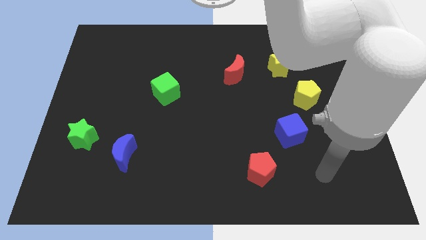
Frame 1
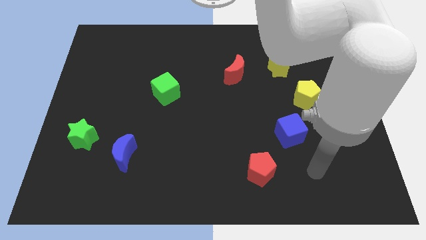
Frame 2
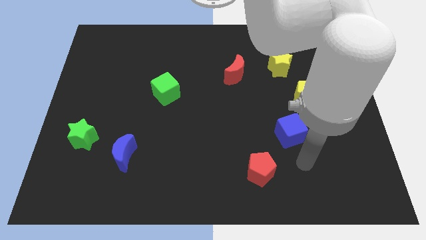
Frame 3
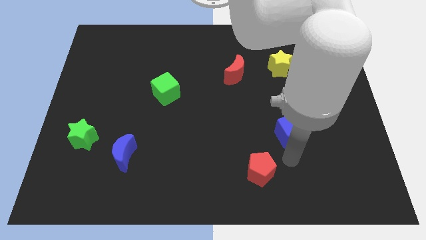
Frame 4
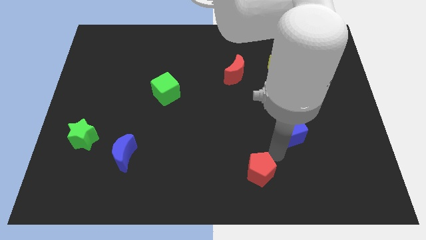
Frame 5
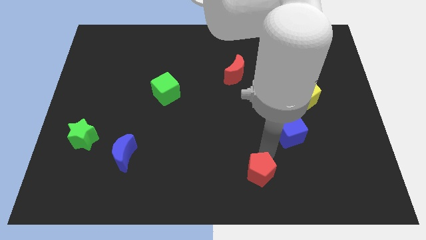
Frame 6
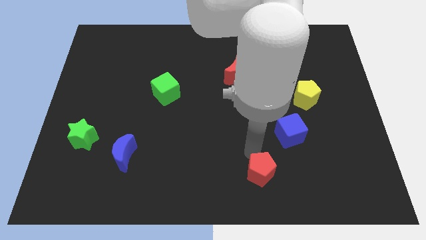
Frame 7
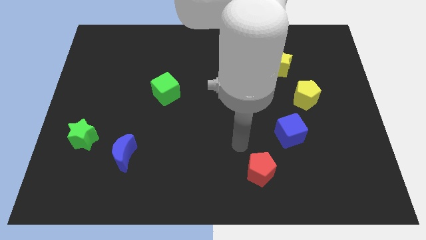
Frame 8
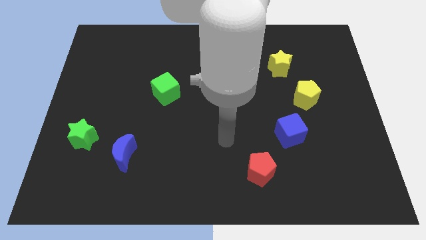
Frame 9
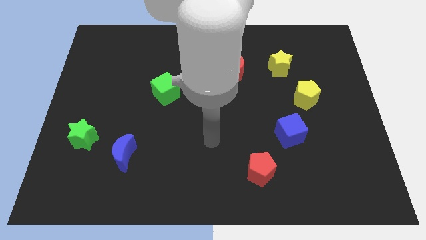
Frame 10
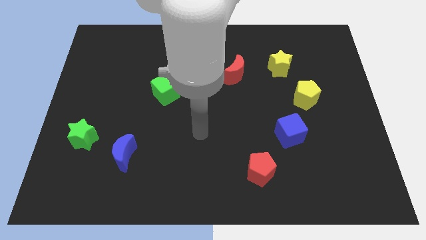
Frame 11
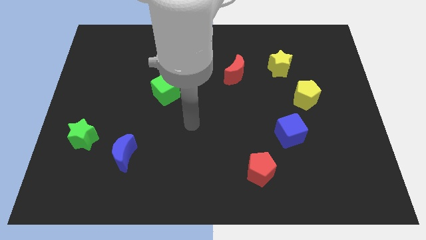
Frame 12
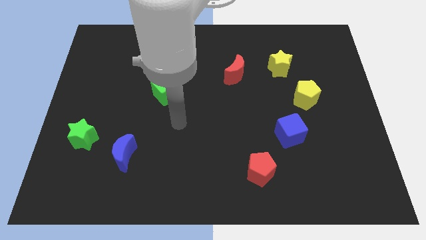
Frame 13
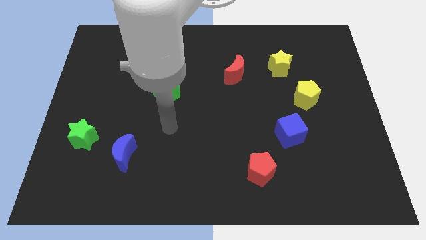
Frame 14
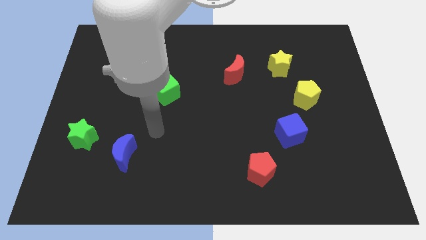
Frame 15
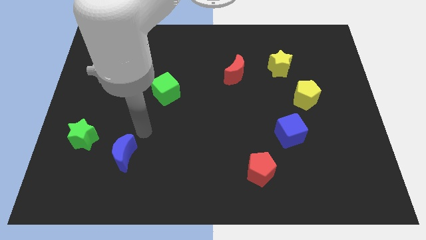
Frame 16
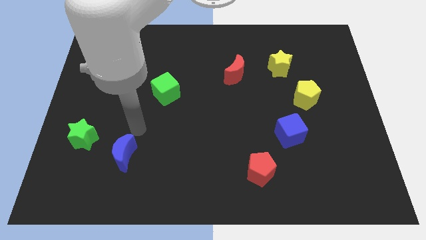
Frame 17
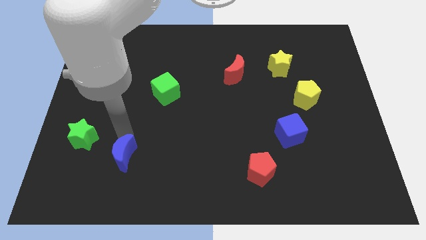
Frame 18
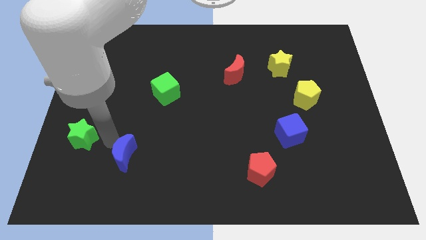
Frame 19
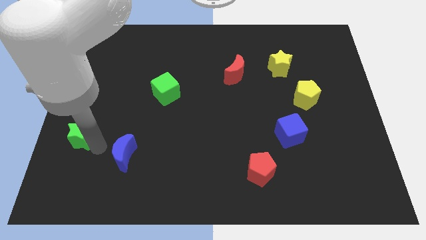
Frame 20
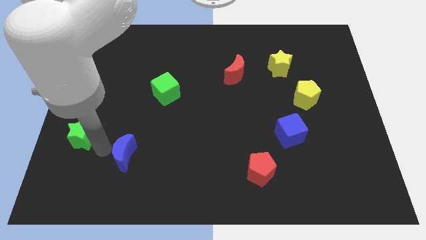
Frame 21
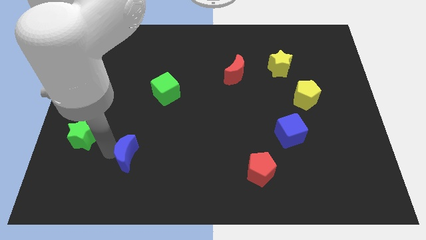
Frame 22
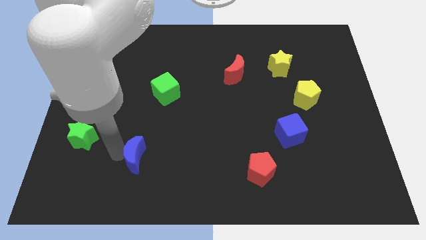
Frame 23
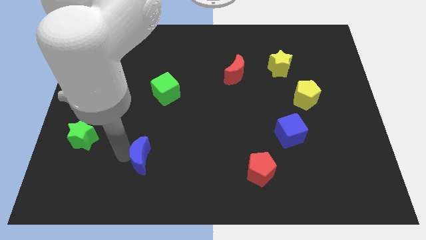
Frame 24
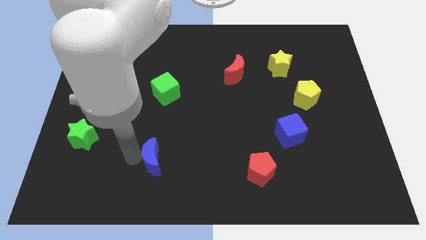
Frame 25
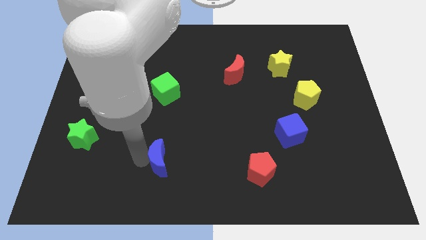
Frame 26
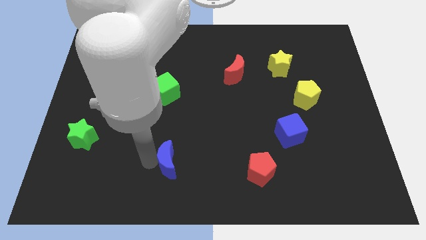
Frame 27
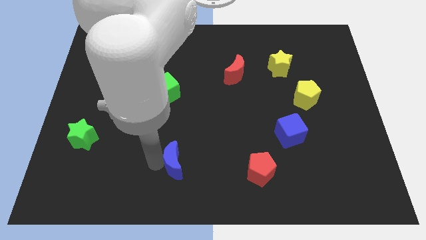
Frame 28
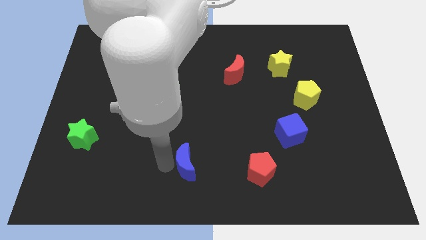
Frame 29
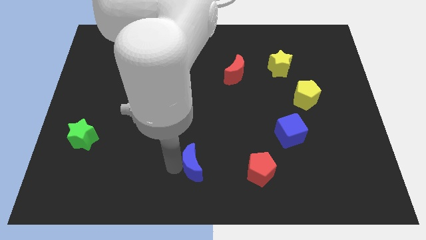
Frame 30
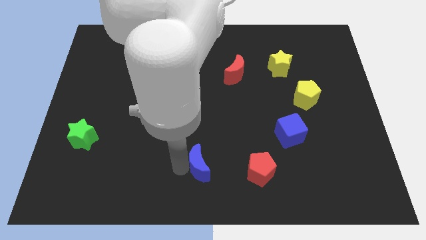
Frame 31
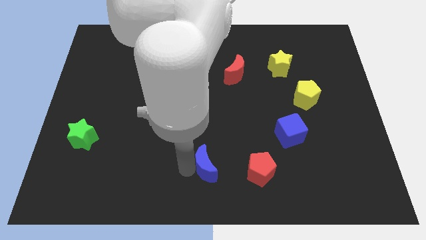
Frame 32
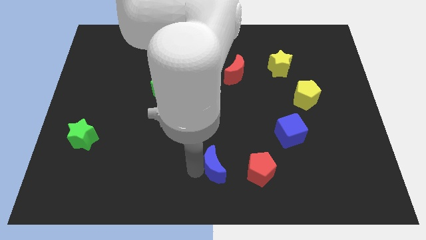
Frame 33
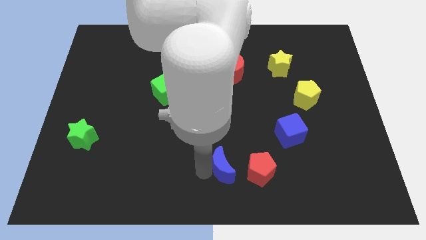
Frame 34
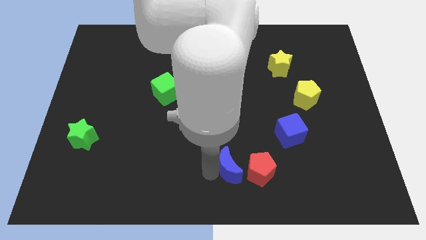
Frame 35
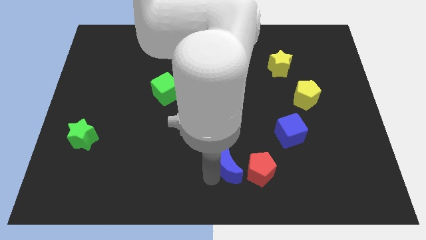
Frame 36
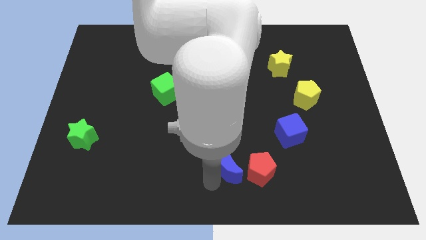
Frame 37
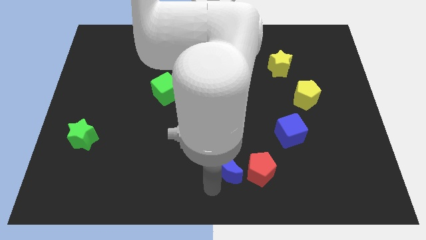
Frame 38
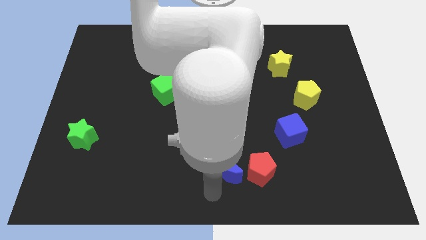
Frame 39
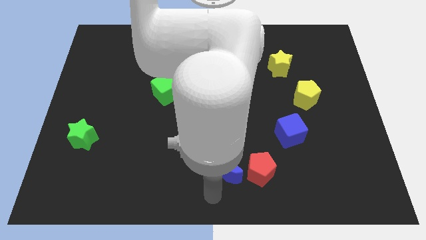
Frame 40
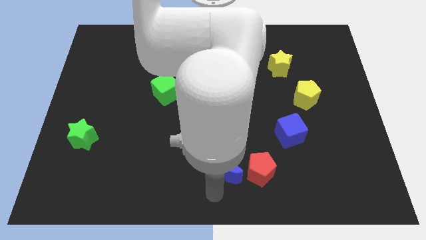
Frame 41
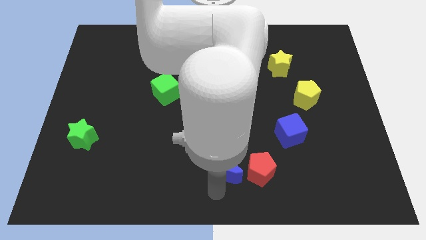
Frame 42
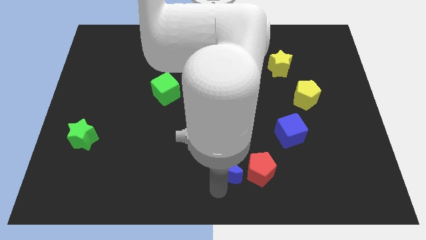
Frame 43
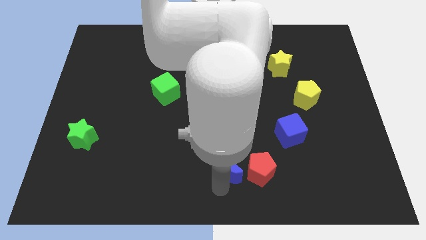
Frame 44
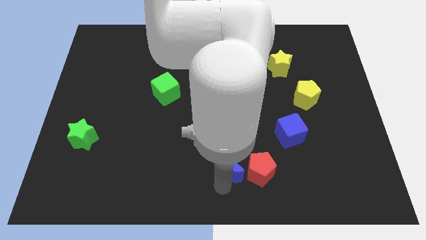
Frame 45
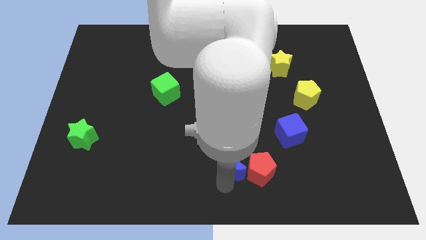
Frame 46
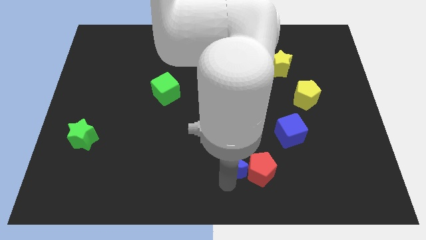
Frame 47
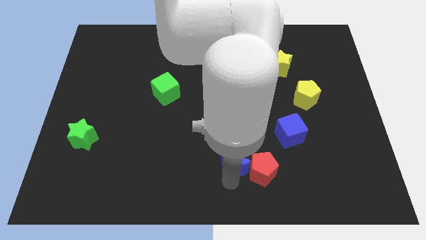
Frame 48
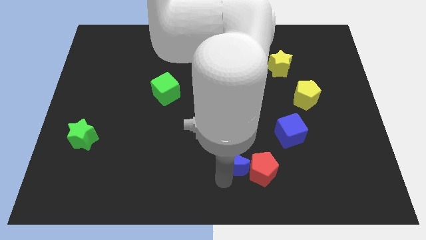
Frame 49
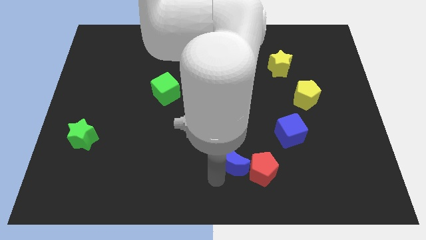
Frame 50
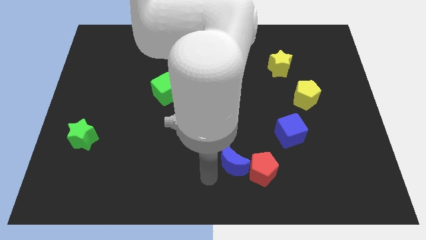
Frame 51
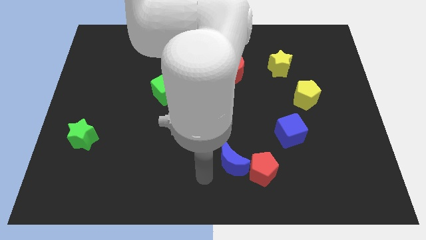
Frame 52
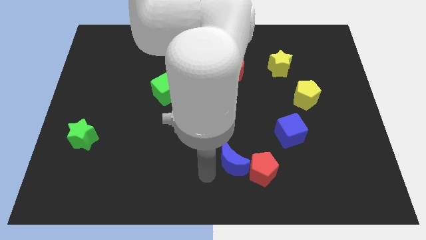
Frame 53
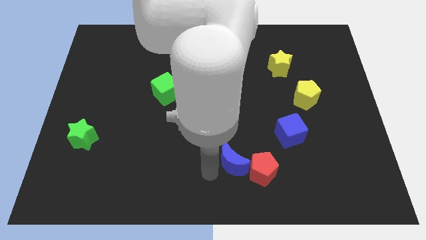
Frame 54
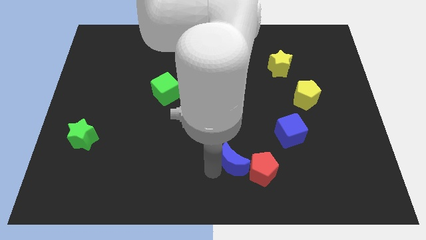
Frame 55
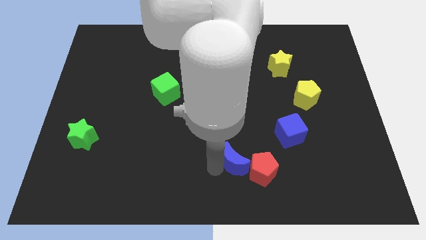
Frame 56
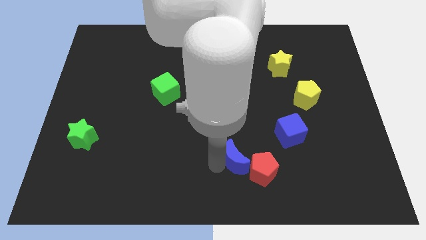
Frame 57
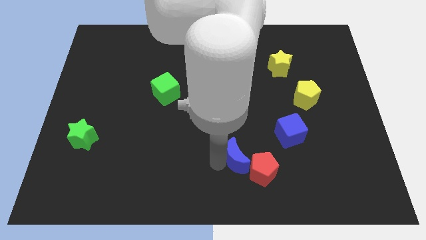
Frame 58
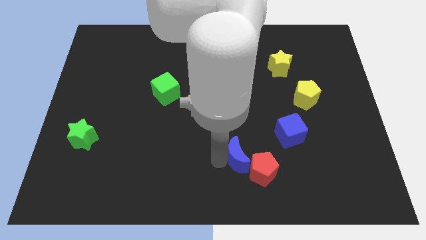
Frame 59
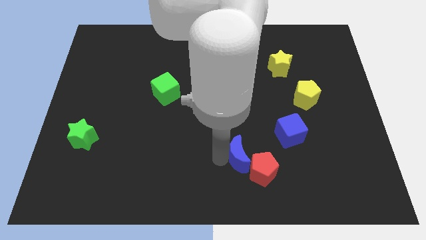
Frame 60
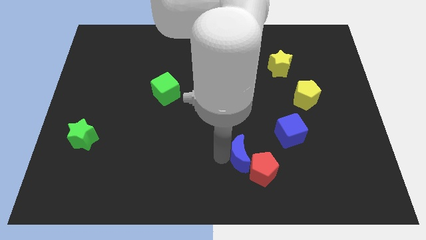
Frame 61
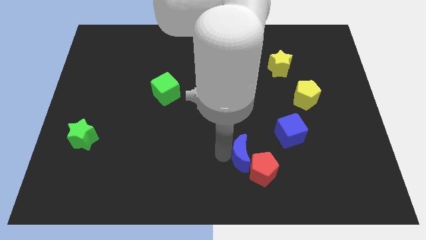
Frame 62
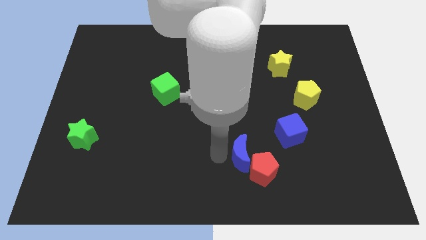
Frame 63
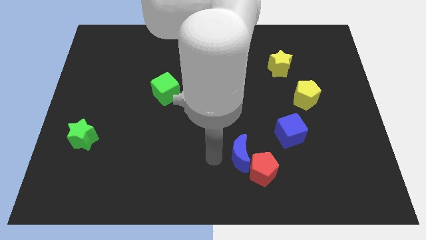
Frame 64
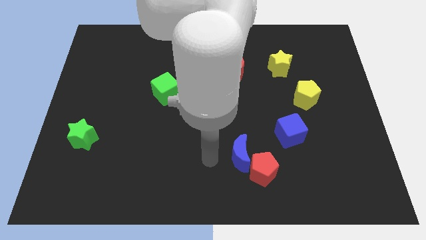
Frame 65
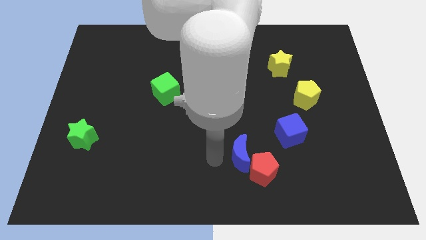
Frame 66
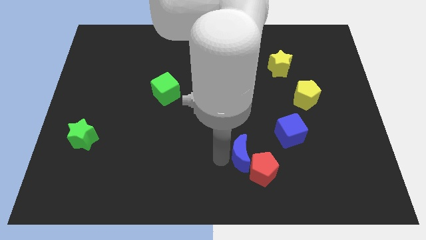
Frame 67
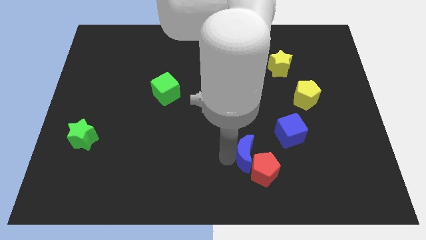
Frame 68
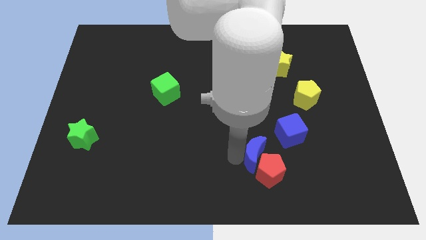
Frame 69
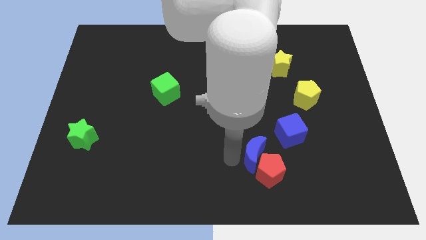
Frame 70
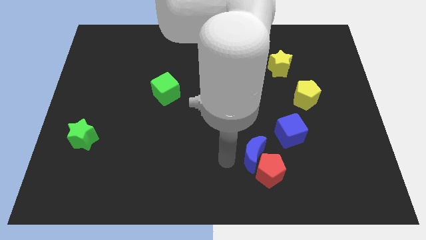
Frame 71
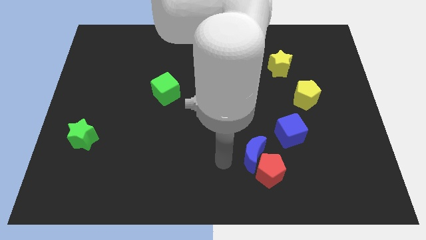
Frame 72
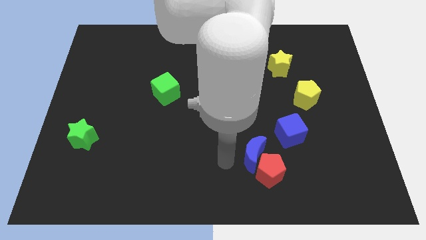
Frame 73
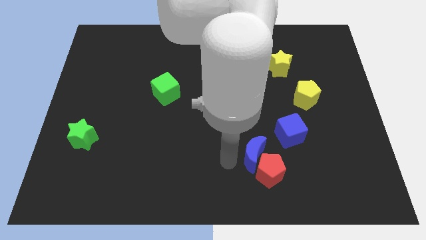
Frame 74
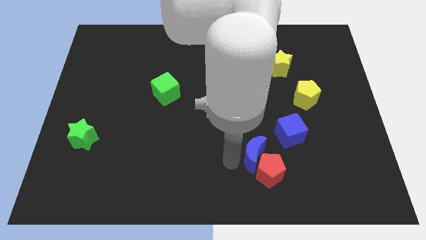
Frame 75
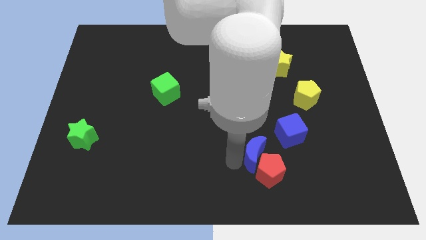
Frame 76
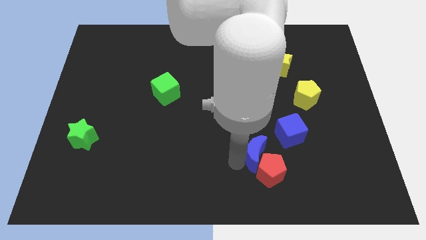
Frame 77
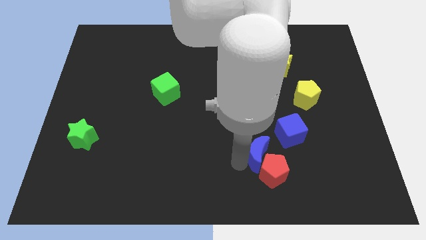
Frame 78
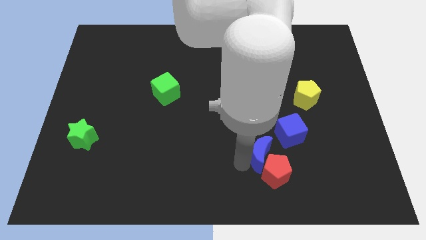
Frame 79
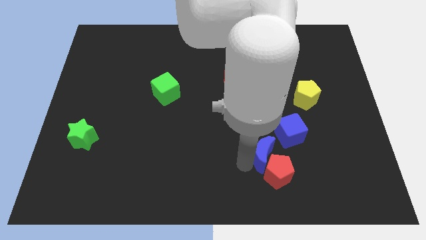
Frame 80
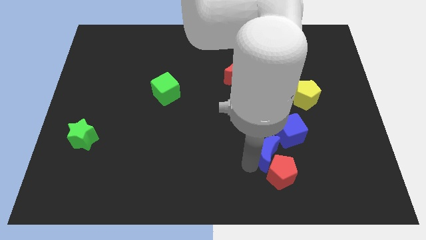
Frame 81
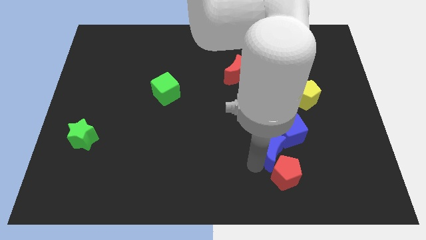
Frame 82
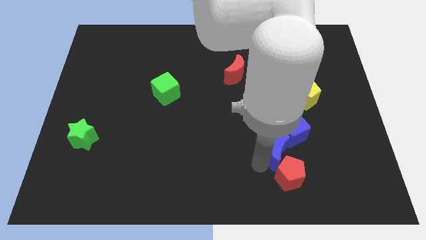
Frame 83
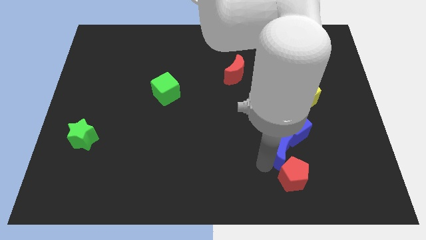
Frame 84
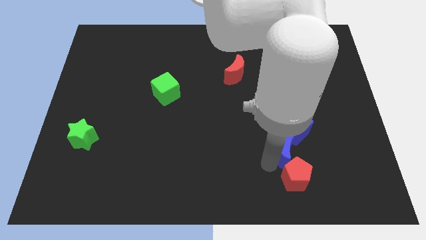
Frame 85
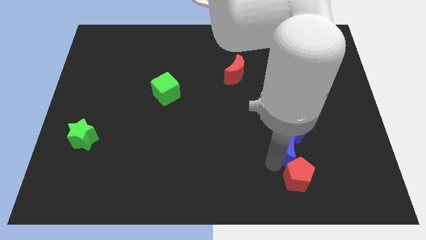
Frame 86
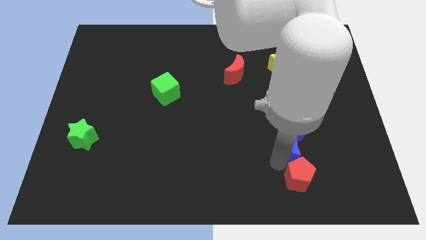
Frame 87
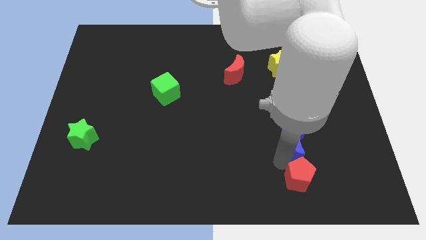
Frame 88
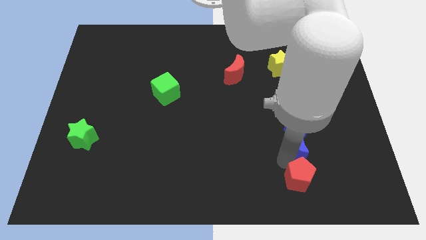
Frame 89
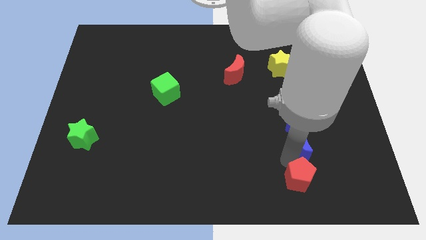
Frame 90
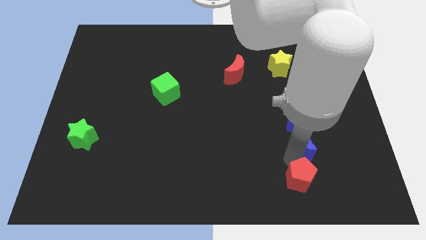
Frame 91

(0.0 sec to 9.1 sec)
move the blue moon diagonally down and to the right of the blue cube
